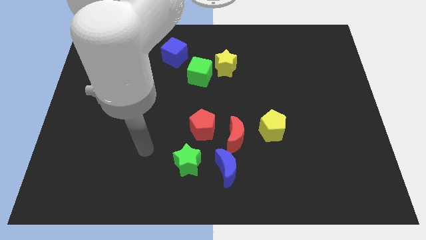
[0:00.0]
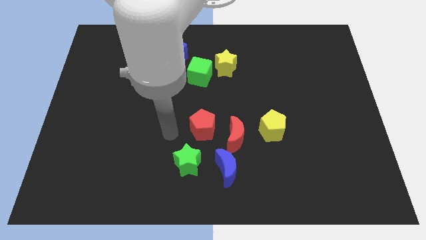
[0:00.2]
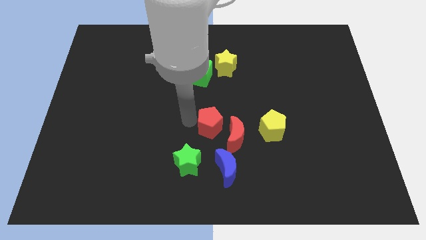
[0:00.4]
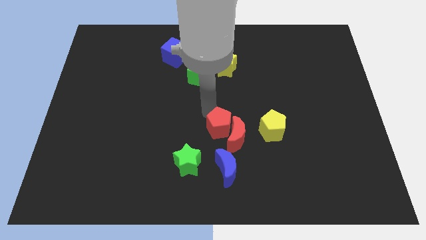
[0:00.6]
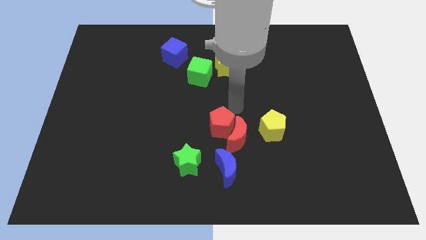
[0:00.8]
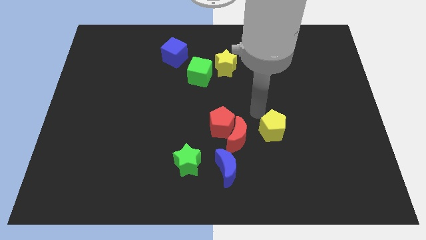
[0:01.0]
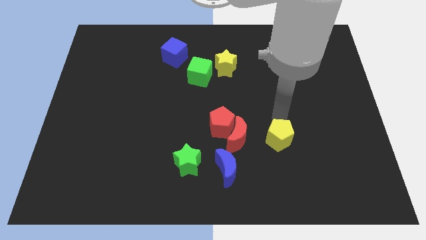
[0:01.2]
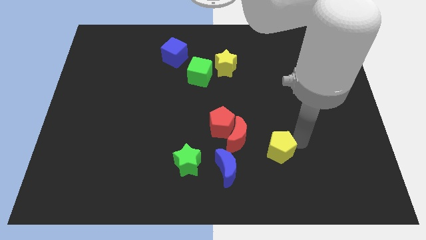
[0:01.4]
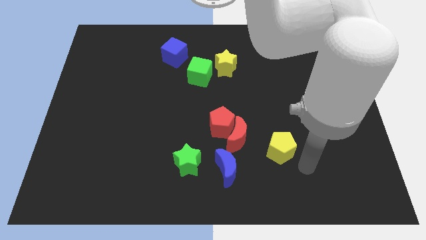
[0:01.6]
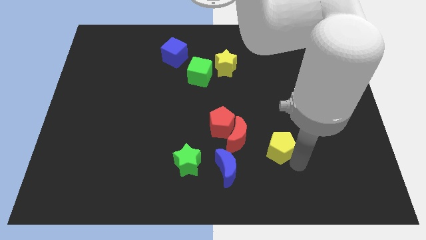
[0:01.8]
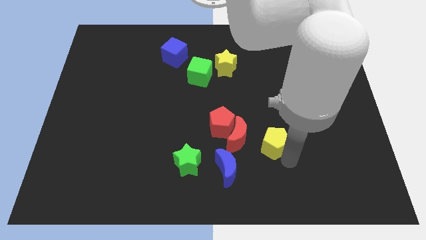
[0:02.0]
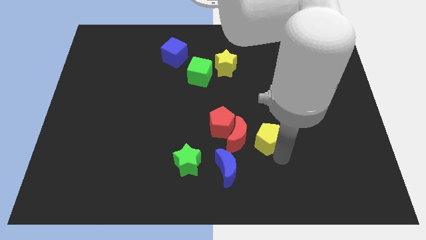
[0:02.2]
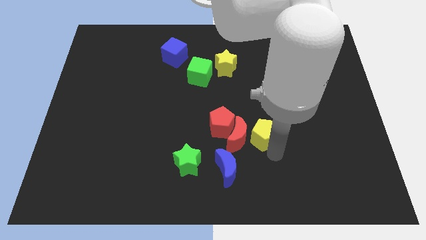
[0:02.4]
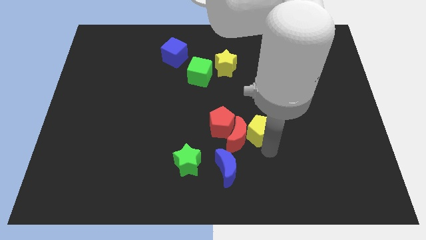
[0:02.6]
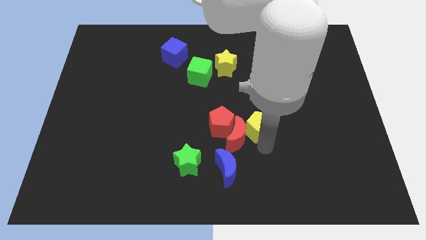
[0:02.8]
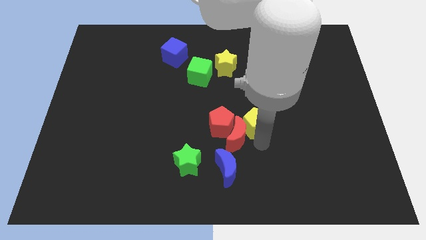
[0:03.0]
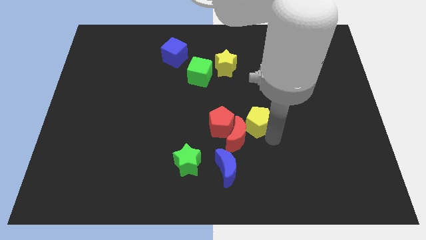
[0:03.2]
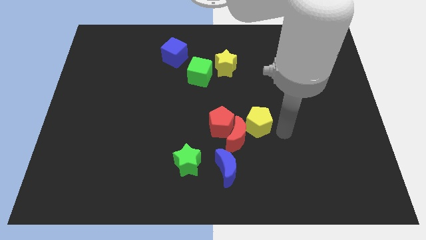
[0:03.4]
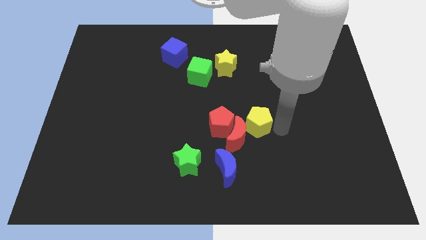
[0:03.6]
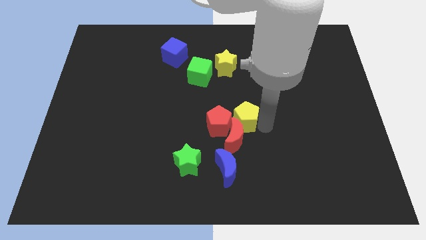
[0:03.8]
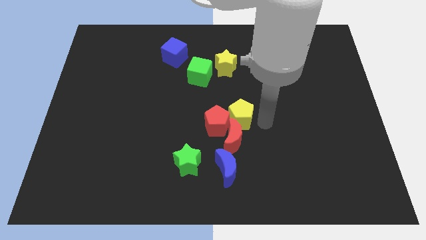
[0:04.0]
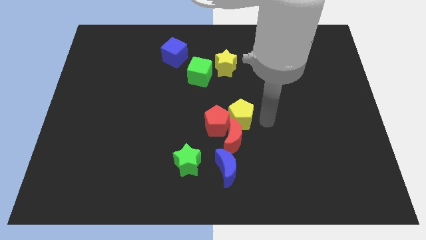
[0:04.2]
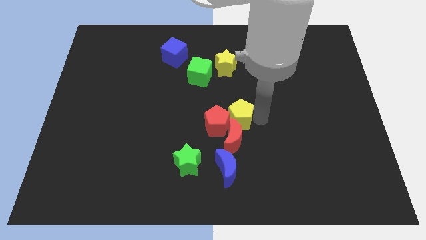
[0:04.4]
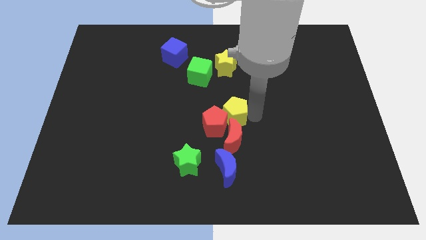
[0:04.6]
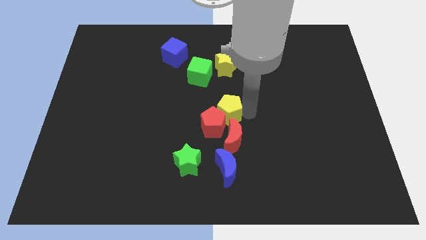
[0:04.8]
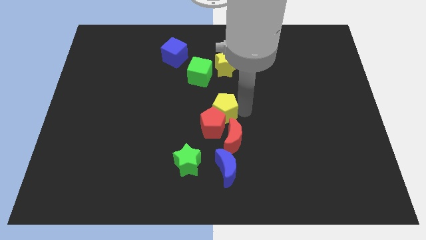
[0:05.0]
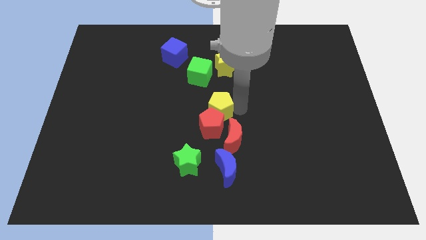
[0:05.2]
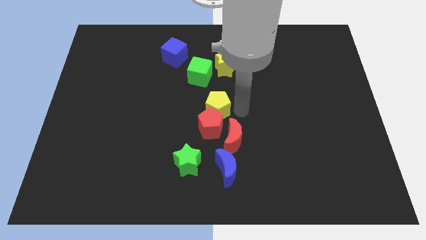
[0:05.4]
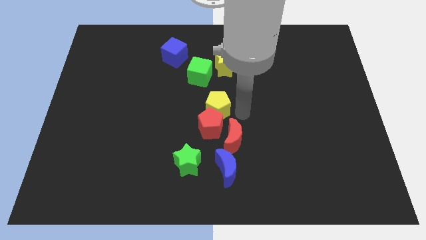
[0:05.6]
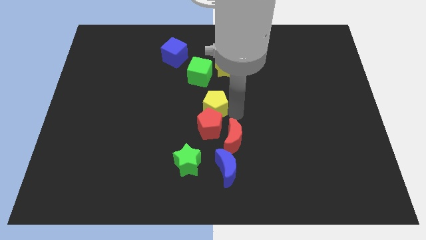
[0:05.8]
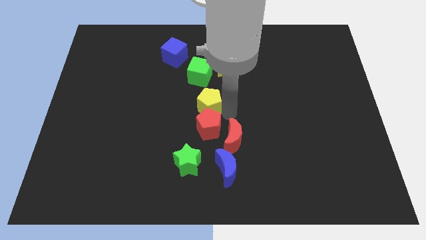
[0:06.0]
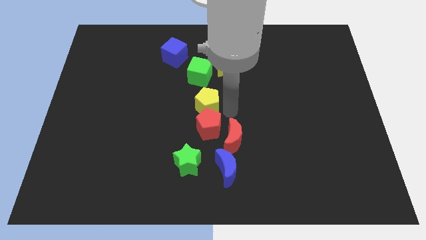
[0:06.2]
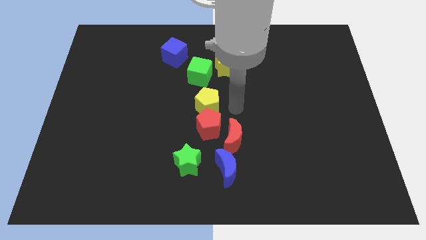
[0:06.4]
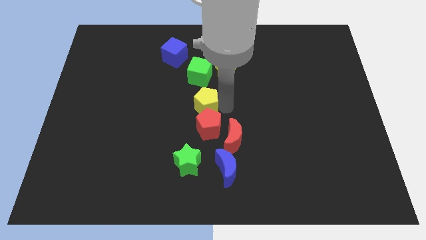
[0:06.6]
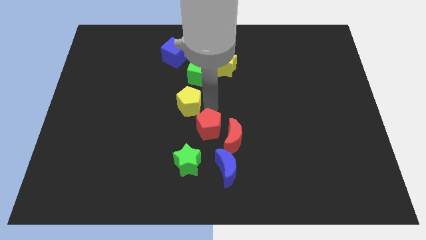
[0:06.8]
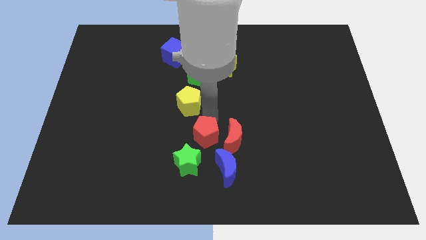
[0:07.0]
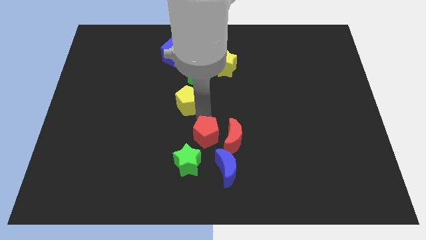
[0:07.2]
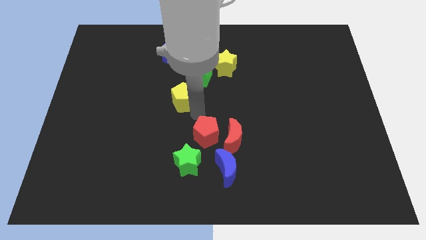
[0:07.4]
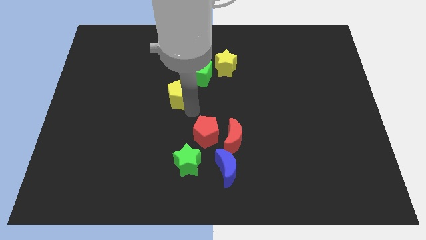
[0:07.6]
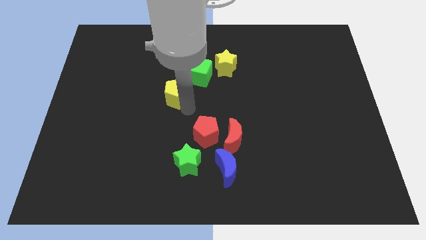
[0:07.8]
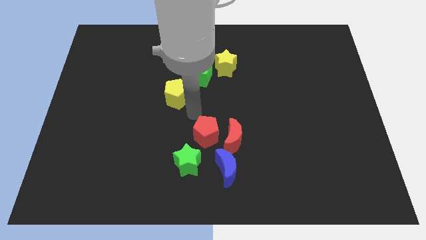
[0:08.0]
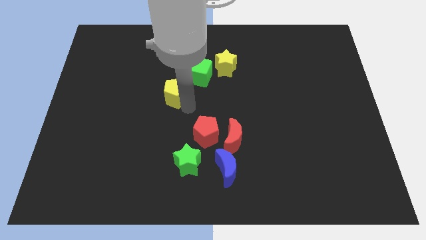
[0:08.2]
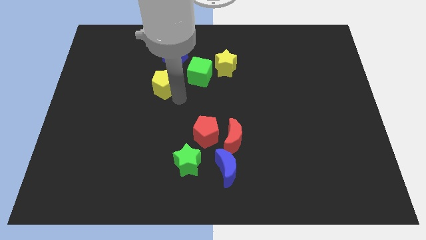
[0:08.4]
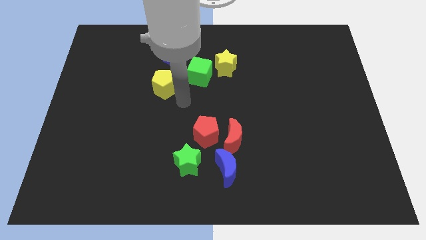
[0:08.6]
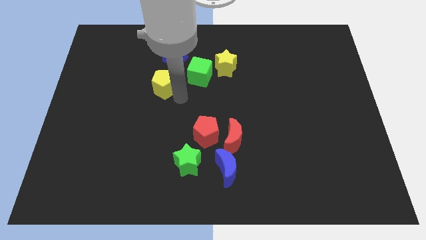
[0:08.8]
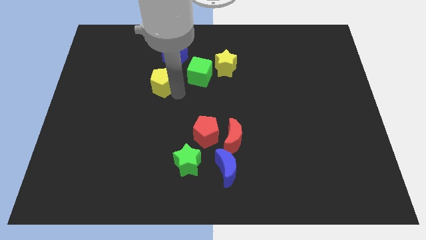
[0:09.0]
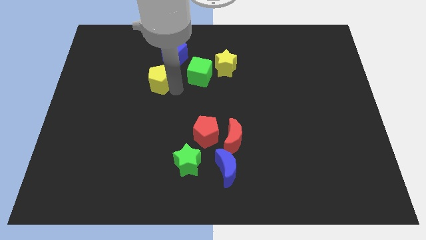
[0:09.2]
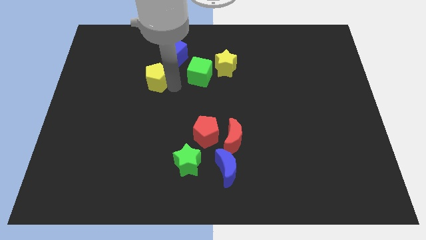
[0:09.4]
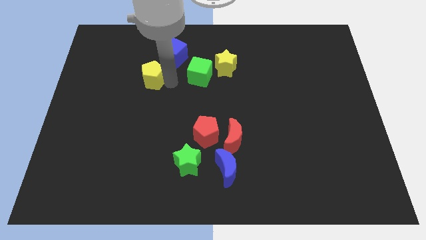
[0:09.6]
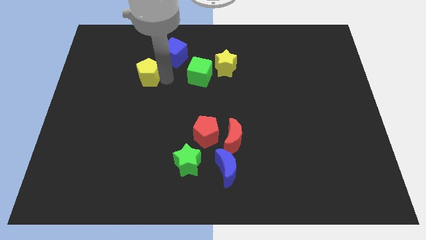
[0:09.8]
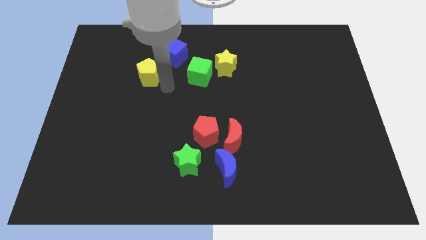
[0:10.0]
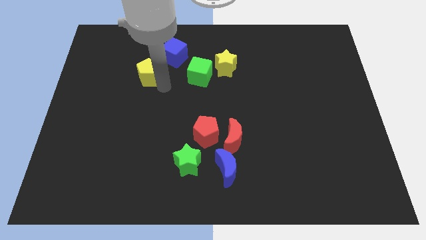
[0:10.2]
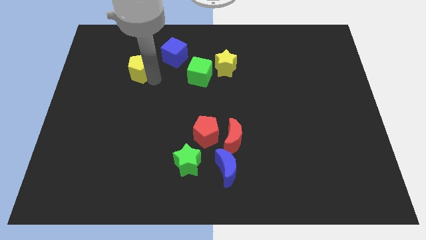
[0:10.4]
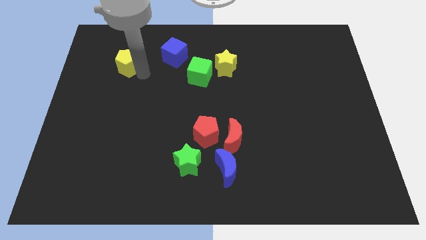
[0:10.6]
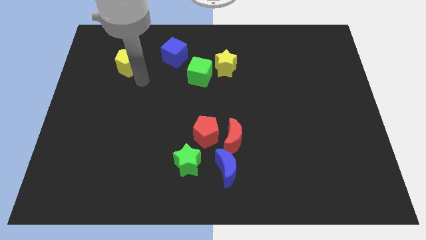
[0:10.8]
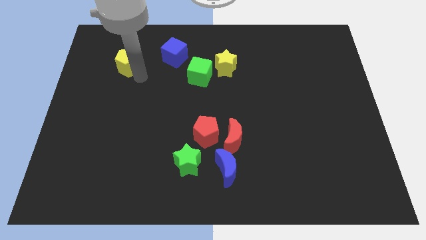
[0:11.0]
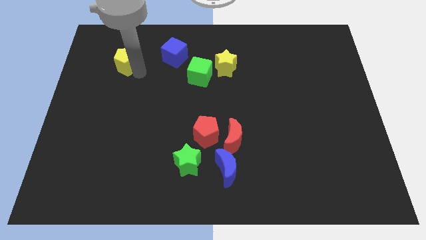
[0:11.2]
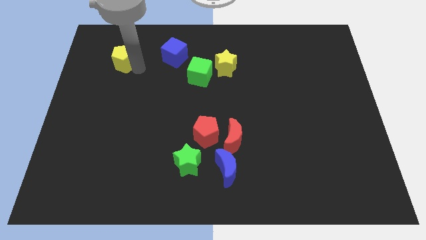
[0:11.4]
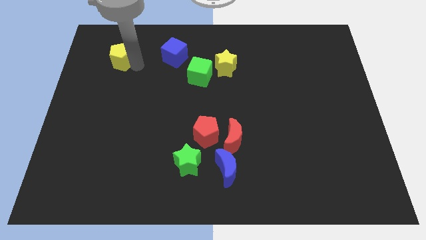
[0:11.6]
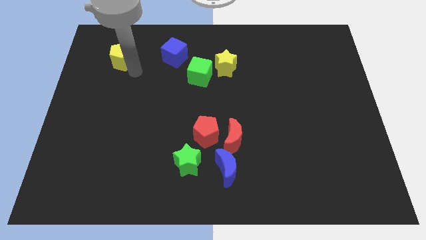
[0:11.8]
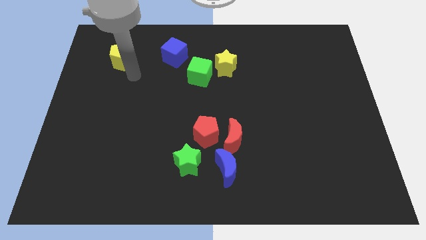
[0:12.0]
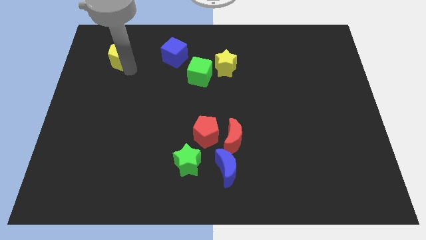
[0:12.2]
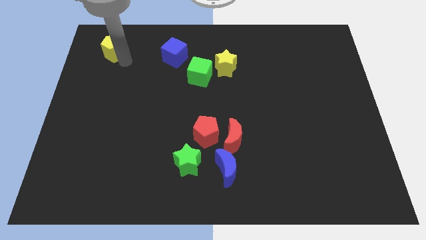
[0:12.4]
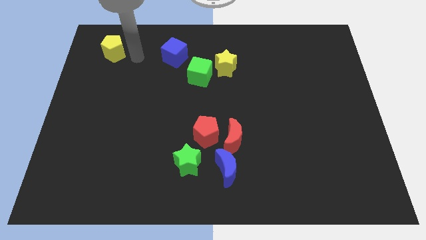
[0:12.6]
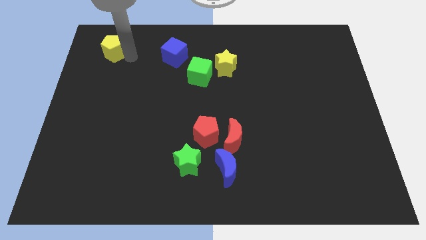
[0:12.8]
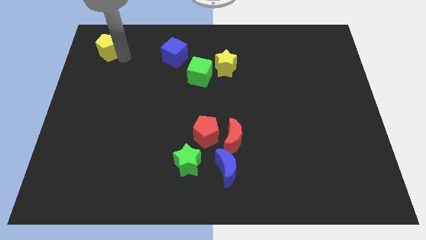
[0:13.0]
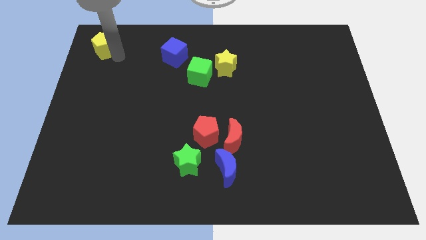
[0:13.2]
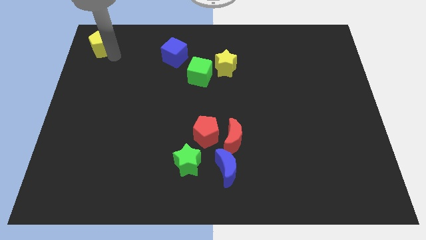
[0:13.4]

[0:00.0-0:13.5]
slide the yellow pentagon to the top left of the board
